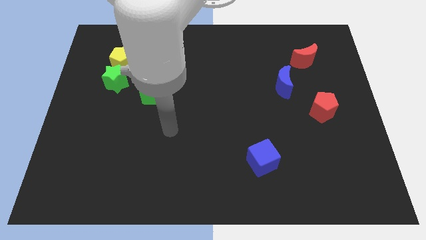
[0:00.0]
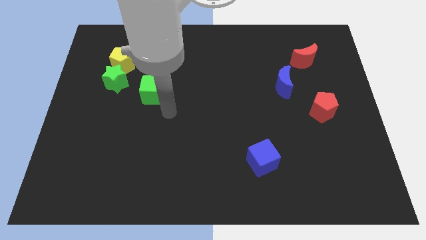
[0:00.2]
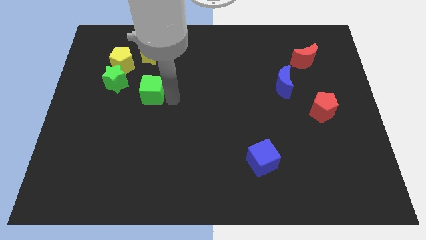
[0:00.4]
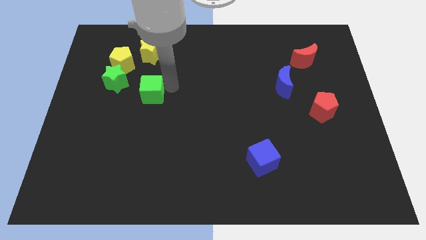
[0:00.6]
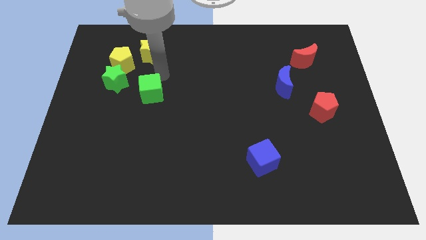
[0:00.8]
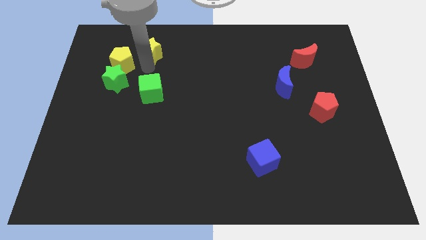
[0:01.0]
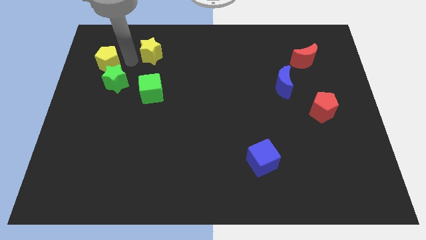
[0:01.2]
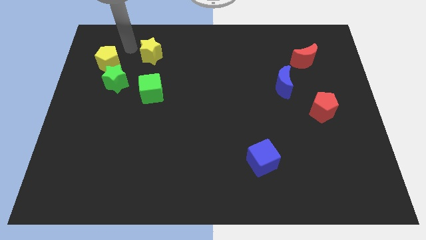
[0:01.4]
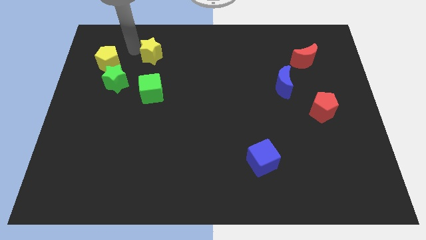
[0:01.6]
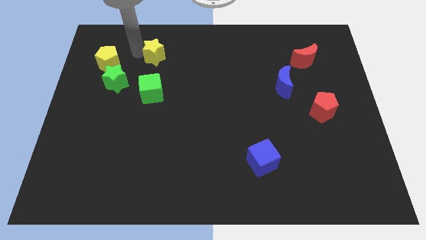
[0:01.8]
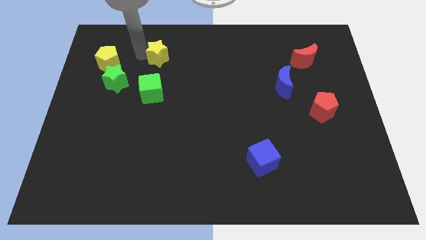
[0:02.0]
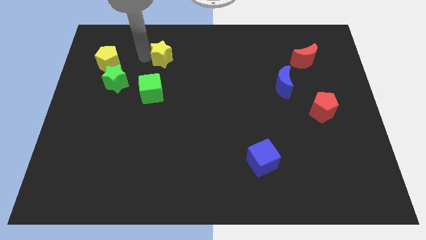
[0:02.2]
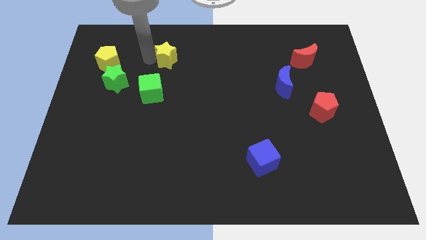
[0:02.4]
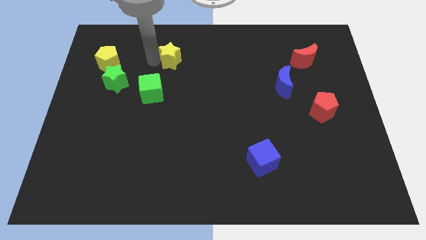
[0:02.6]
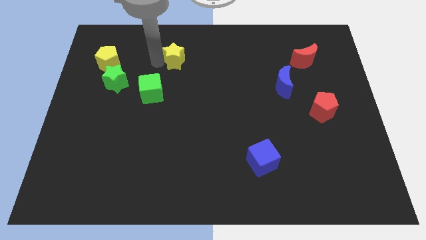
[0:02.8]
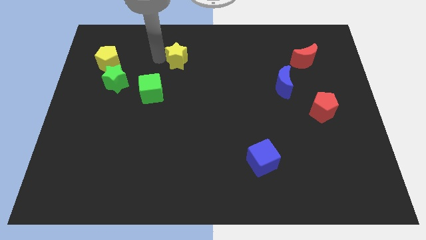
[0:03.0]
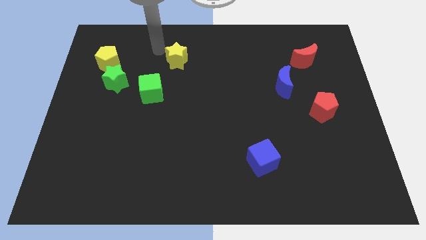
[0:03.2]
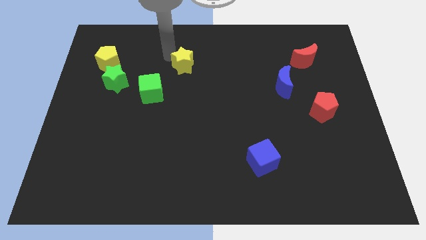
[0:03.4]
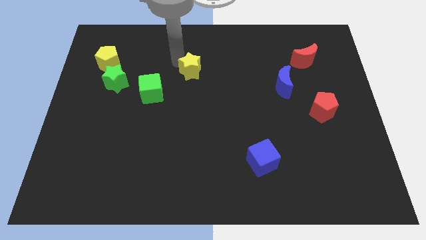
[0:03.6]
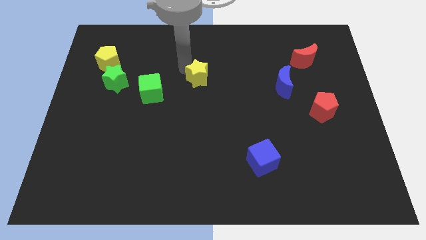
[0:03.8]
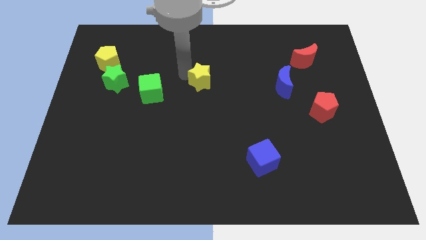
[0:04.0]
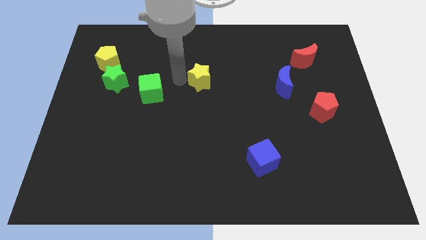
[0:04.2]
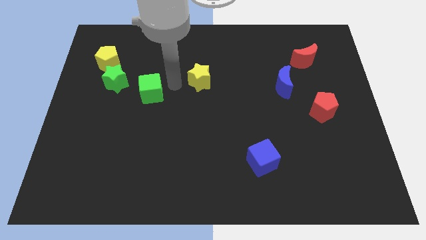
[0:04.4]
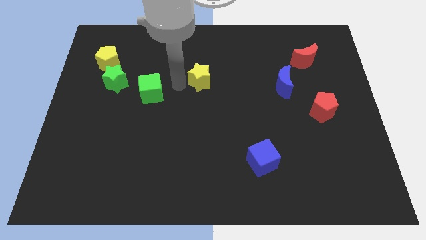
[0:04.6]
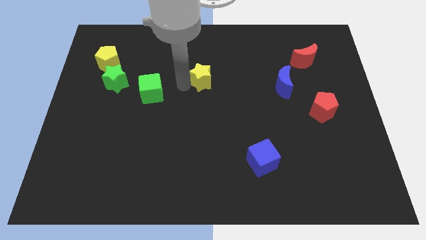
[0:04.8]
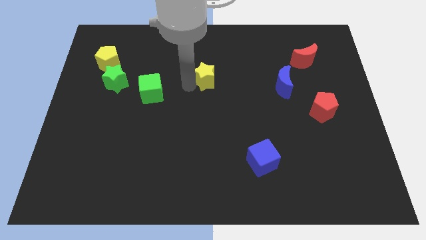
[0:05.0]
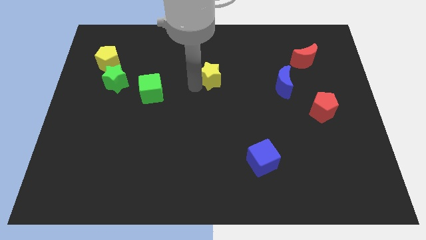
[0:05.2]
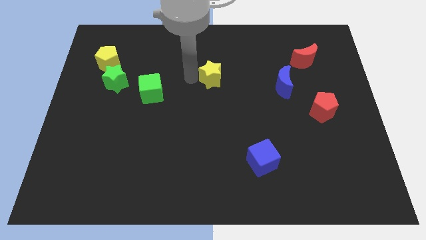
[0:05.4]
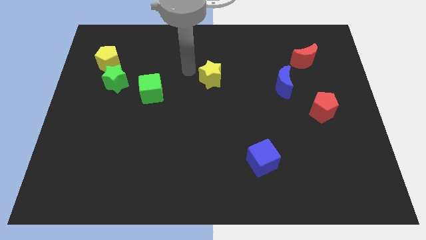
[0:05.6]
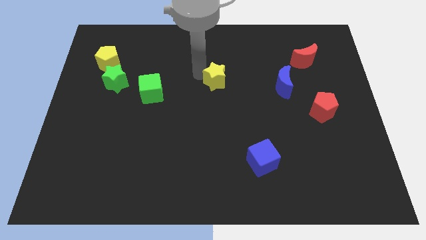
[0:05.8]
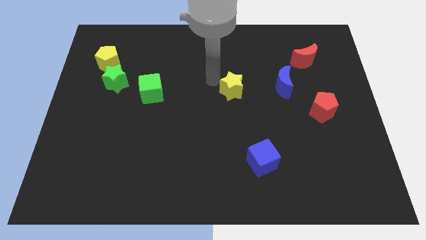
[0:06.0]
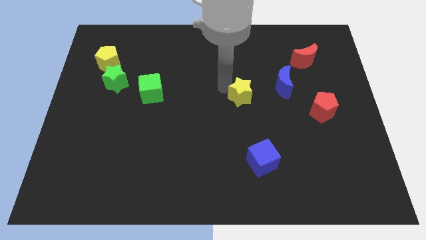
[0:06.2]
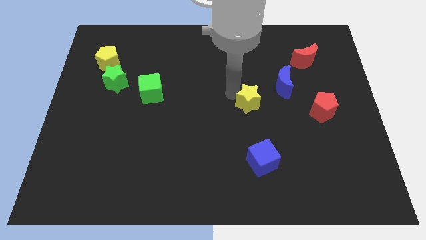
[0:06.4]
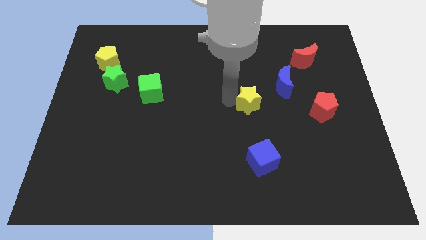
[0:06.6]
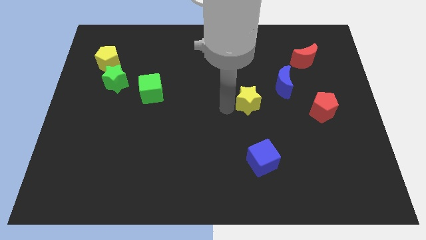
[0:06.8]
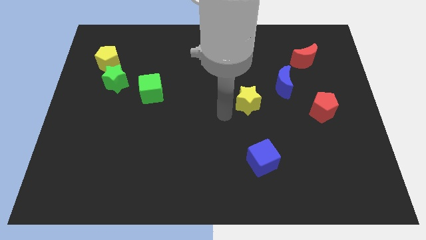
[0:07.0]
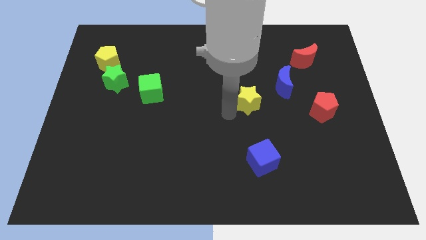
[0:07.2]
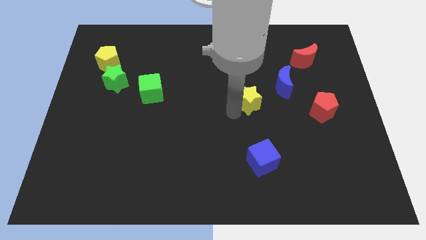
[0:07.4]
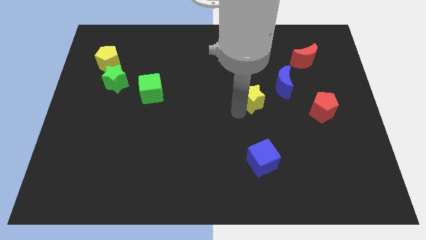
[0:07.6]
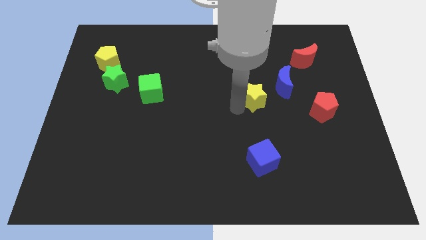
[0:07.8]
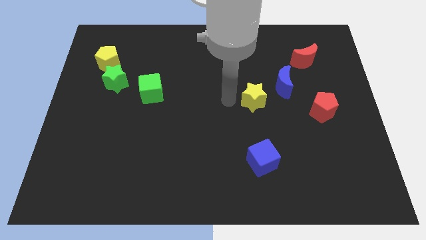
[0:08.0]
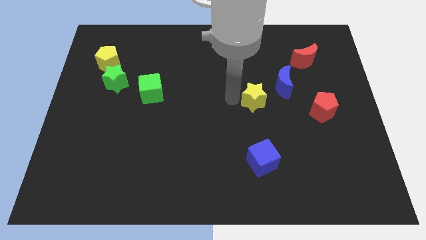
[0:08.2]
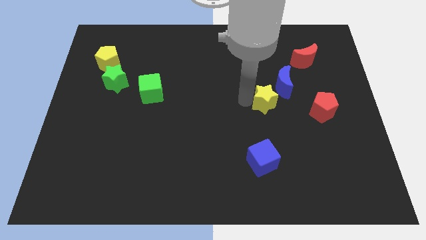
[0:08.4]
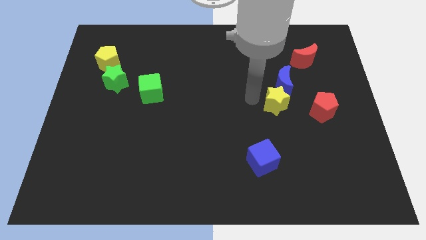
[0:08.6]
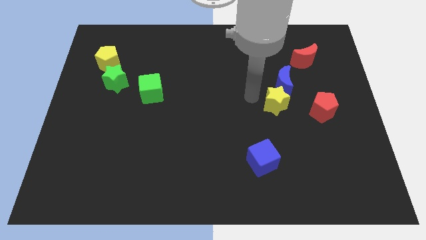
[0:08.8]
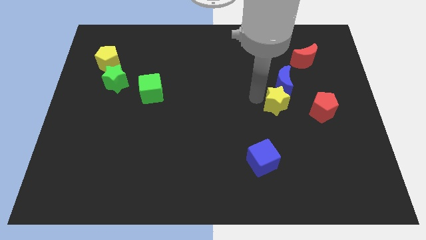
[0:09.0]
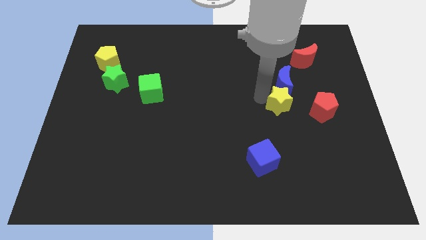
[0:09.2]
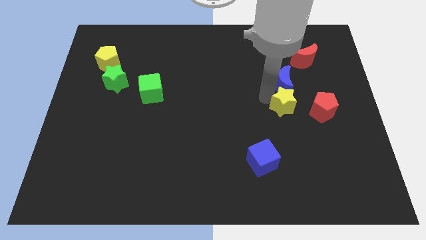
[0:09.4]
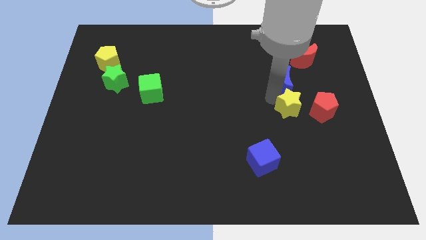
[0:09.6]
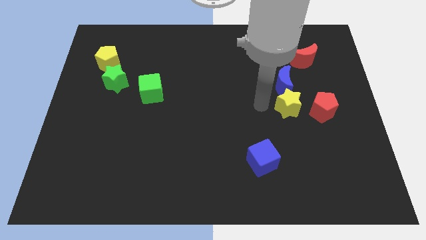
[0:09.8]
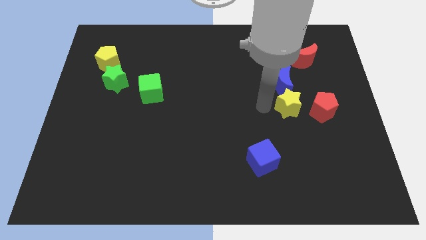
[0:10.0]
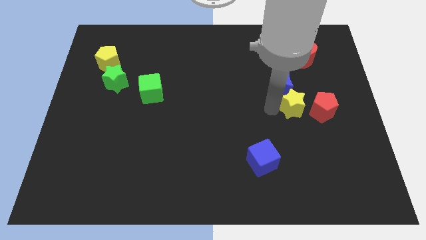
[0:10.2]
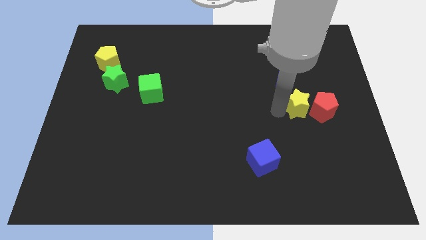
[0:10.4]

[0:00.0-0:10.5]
move the yellow star to the red pentagon

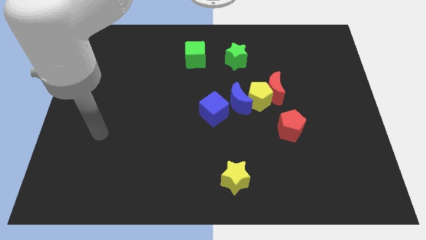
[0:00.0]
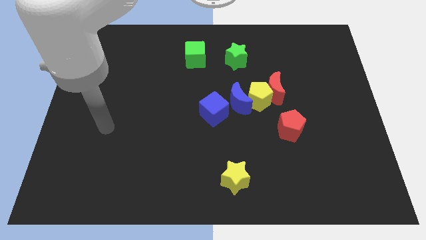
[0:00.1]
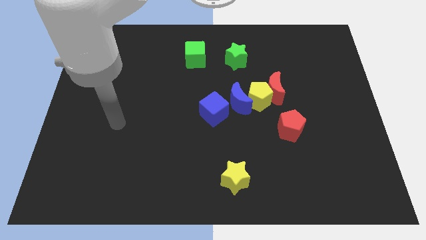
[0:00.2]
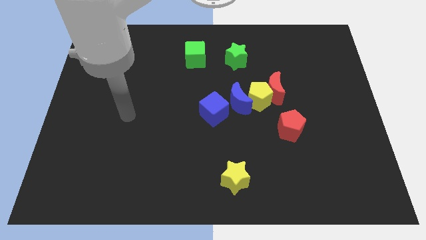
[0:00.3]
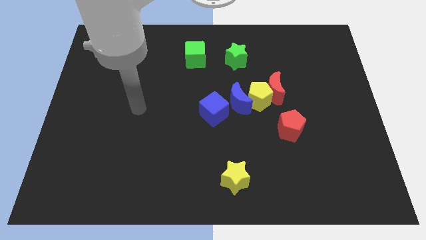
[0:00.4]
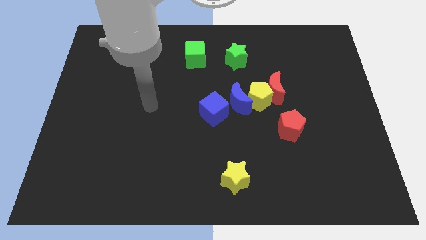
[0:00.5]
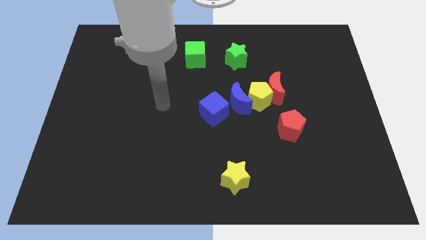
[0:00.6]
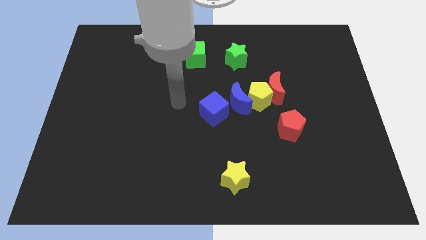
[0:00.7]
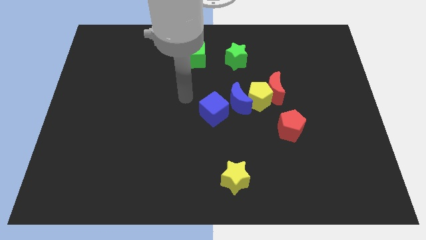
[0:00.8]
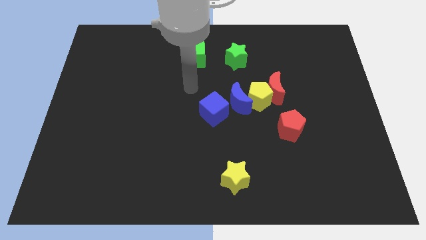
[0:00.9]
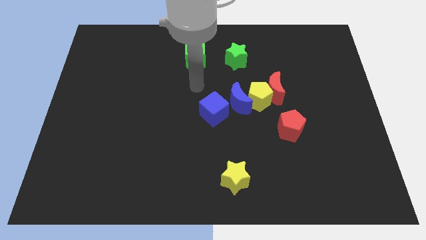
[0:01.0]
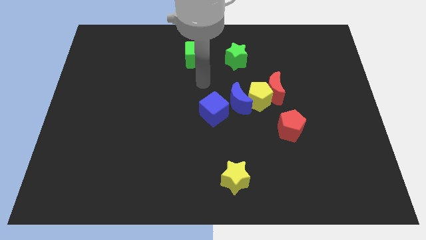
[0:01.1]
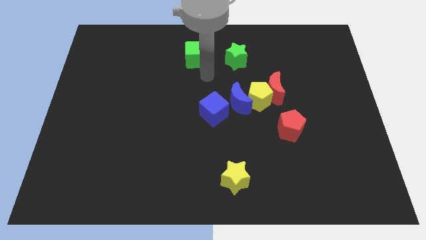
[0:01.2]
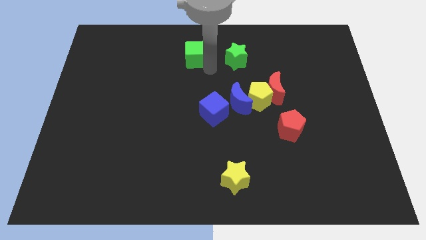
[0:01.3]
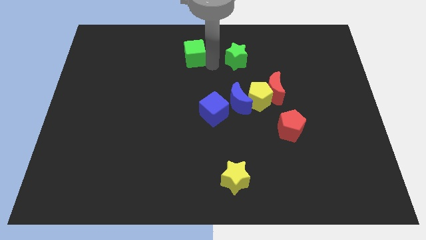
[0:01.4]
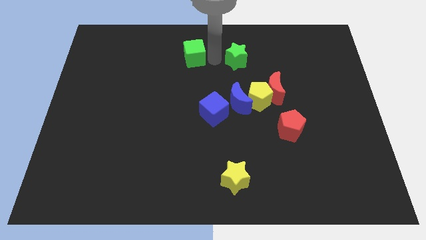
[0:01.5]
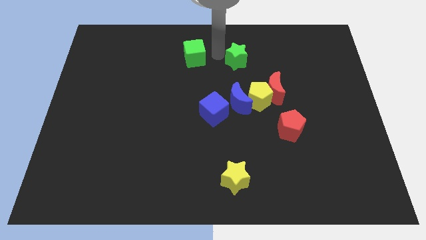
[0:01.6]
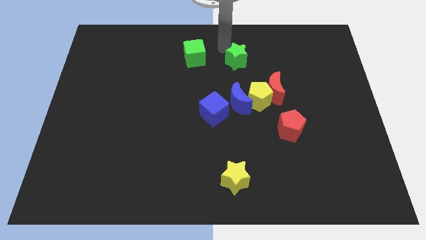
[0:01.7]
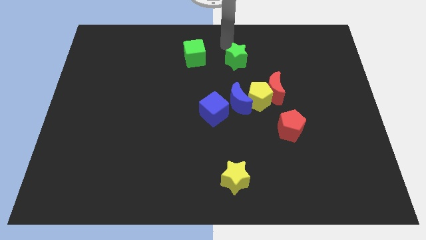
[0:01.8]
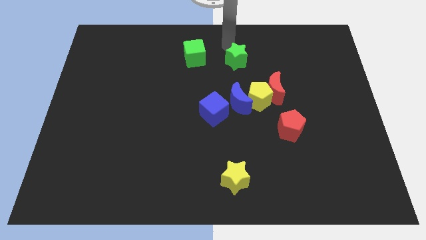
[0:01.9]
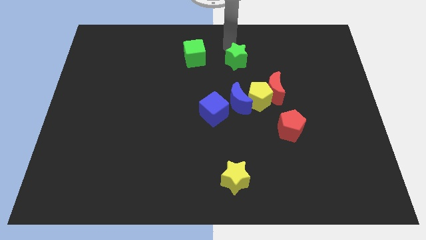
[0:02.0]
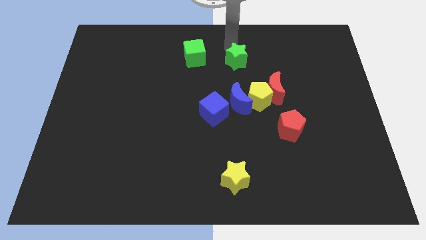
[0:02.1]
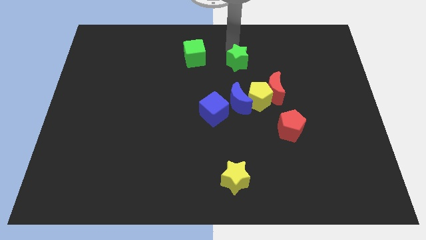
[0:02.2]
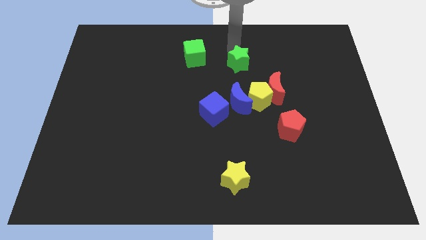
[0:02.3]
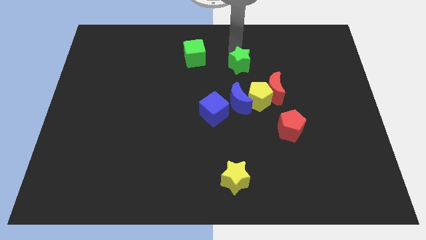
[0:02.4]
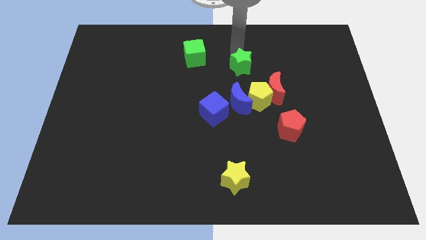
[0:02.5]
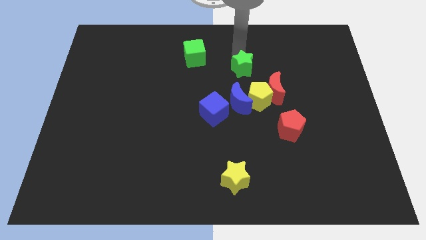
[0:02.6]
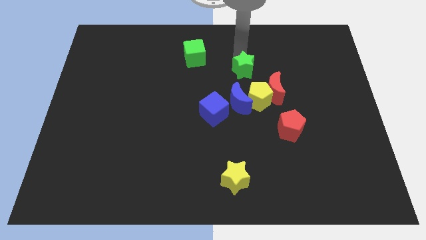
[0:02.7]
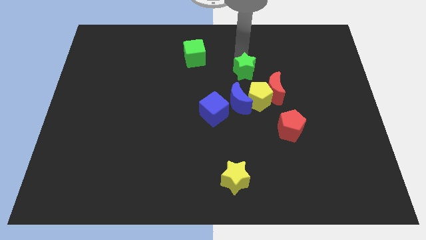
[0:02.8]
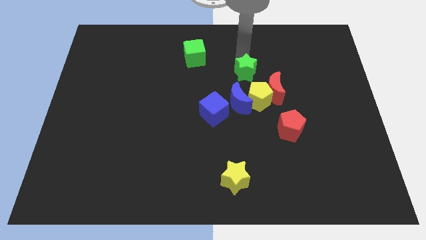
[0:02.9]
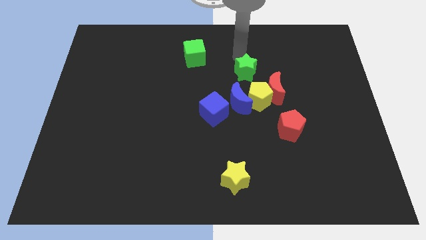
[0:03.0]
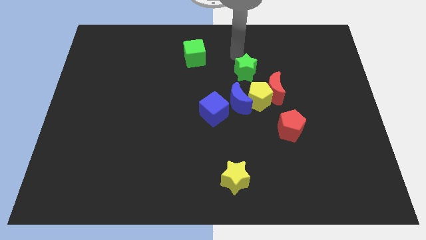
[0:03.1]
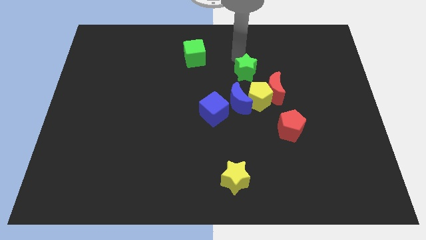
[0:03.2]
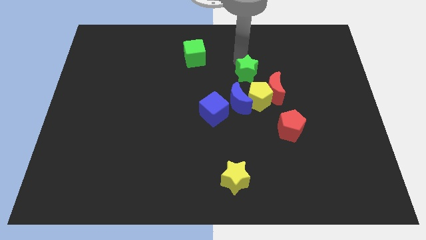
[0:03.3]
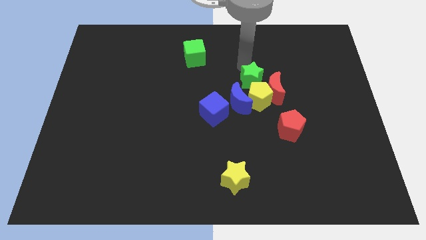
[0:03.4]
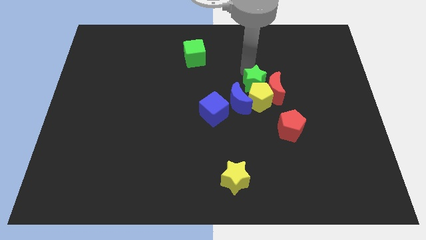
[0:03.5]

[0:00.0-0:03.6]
slide the green star close to the yellow pentagon
